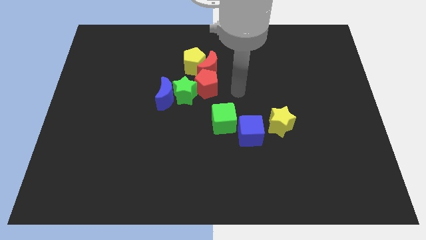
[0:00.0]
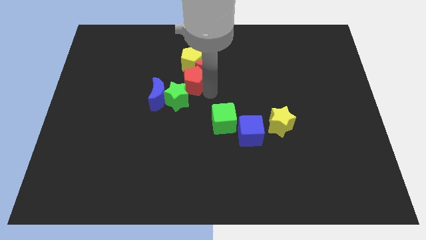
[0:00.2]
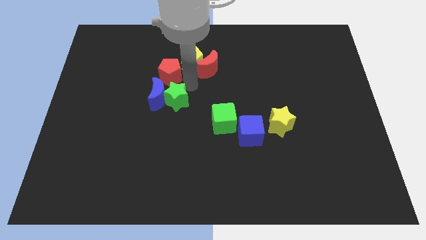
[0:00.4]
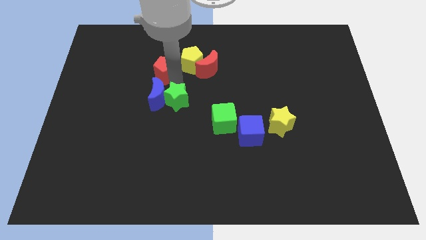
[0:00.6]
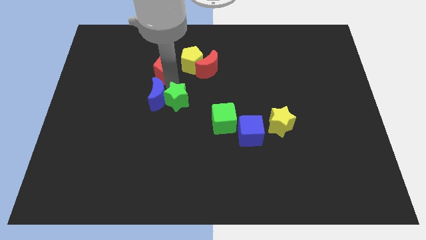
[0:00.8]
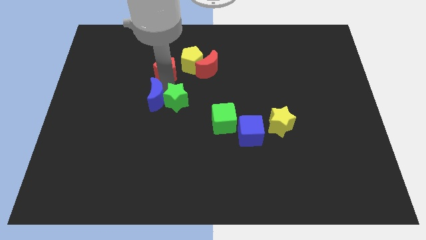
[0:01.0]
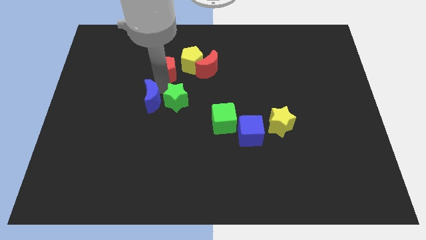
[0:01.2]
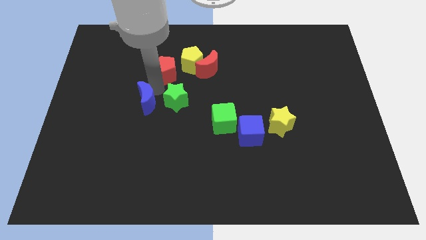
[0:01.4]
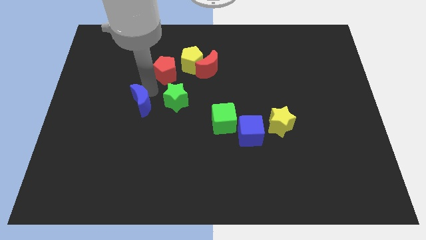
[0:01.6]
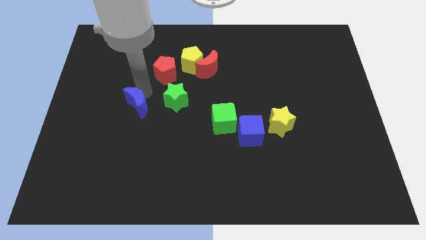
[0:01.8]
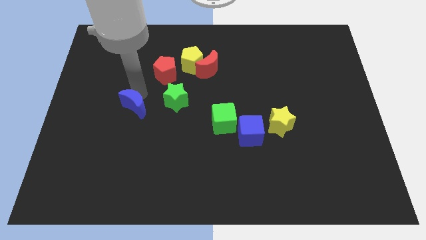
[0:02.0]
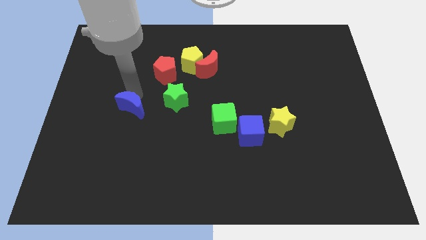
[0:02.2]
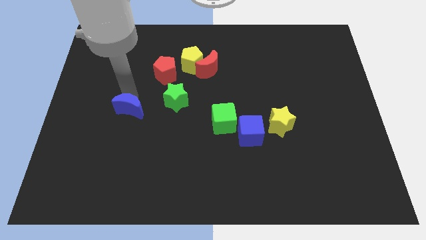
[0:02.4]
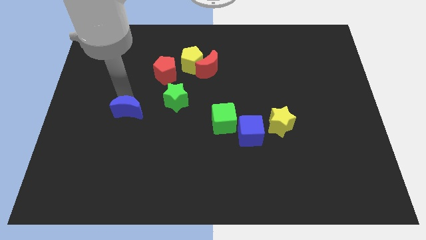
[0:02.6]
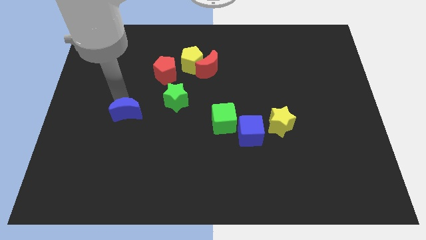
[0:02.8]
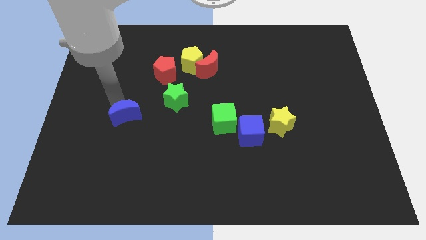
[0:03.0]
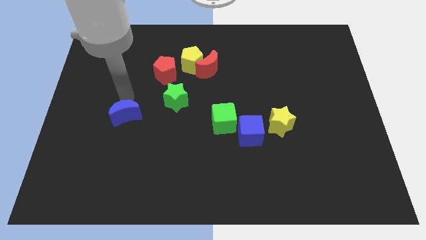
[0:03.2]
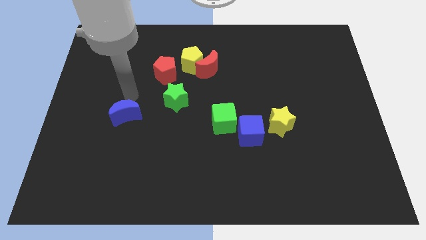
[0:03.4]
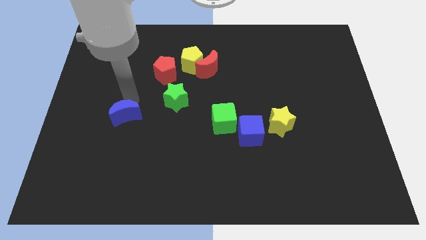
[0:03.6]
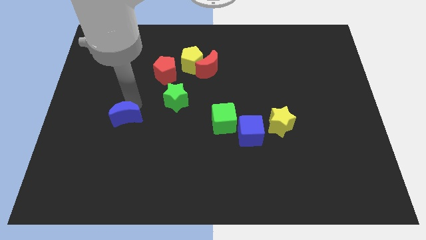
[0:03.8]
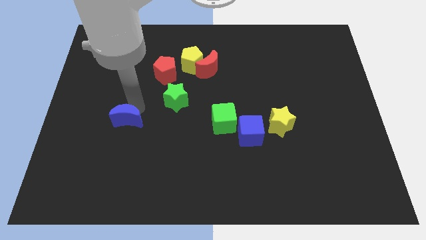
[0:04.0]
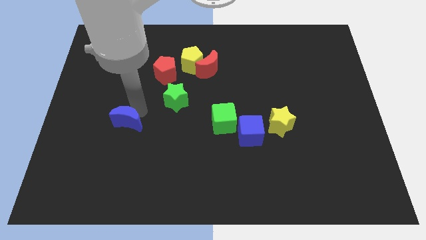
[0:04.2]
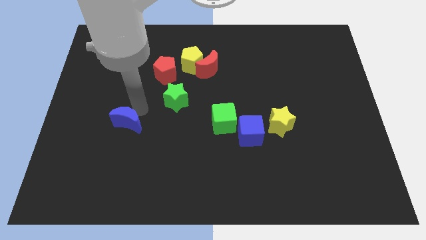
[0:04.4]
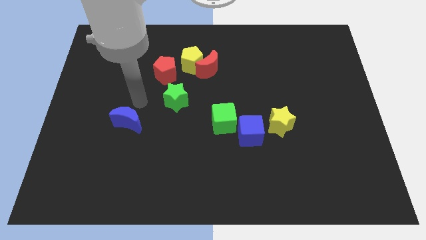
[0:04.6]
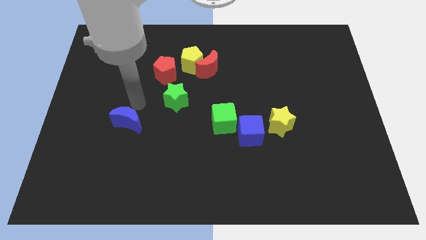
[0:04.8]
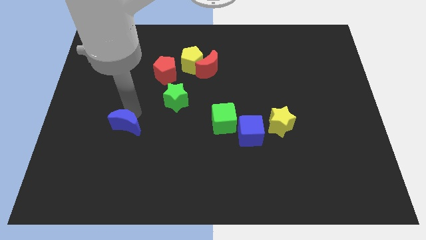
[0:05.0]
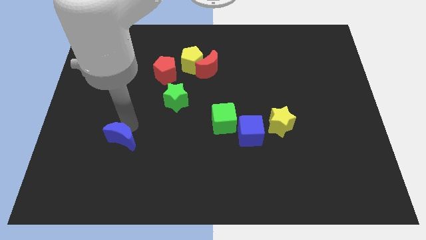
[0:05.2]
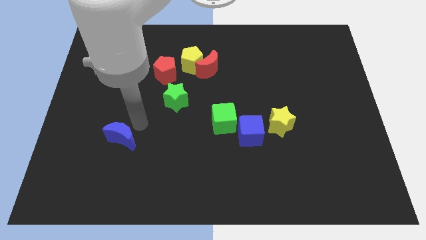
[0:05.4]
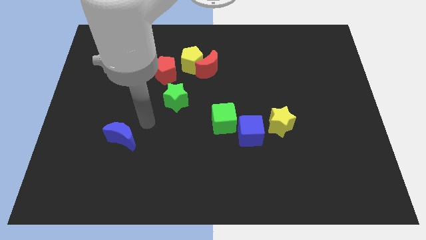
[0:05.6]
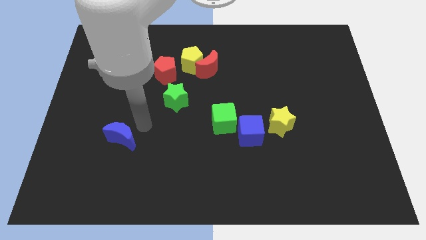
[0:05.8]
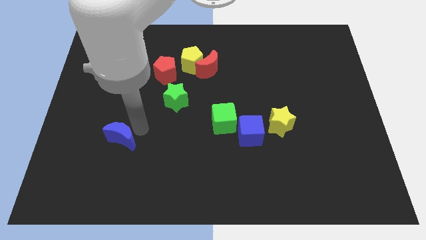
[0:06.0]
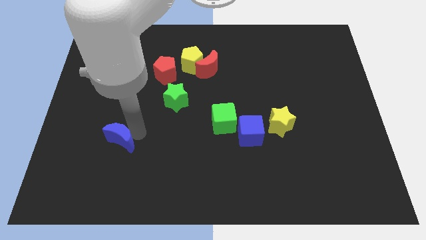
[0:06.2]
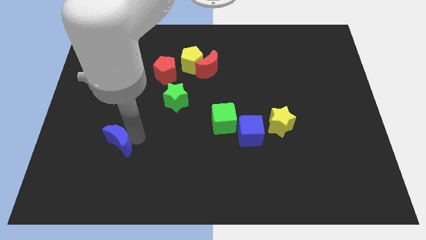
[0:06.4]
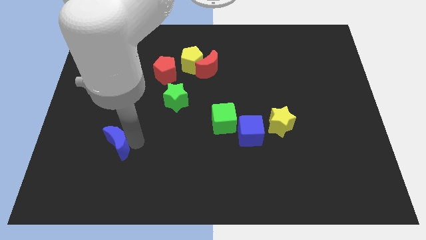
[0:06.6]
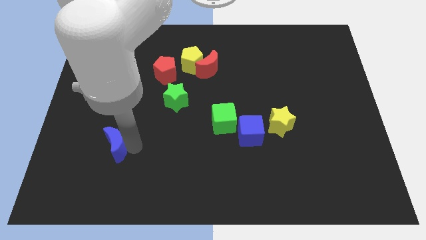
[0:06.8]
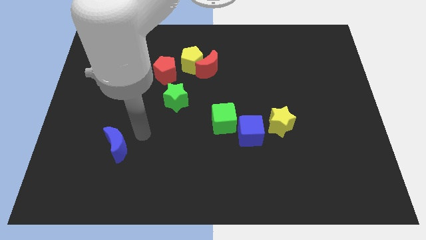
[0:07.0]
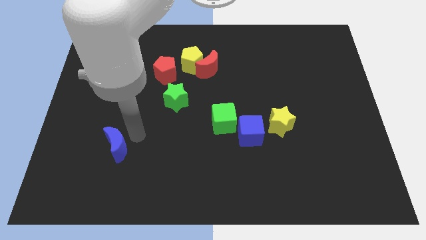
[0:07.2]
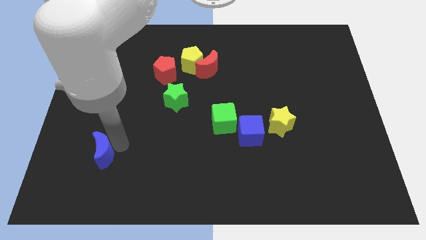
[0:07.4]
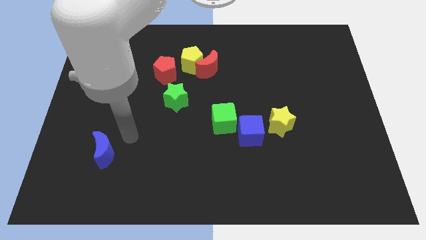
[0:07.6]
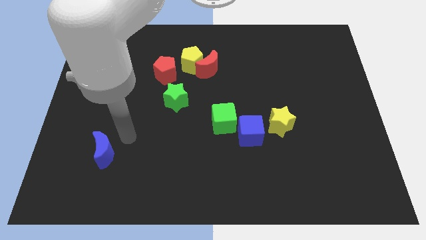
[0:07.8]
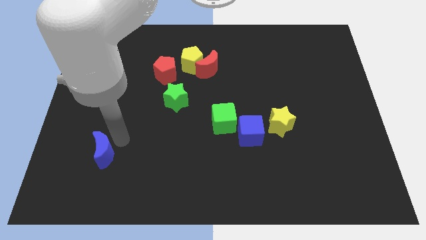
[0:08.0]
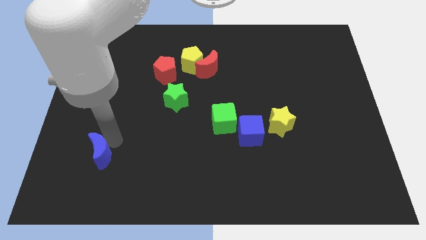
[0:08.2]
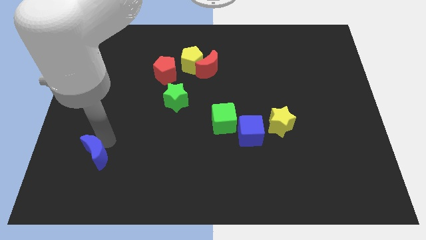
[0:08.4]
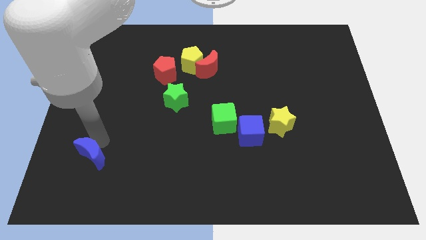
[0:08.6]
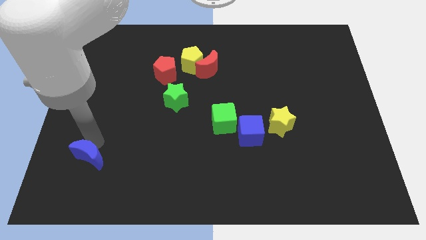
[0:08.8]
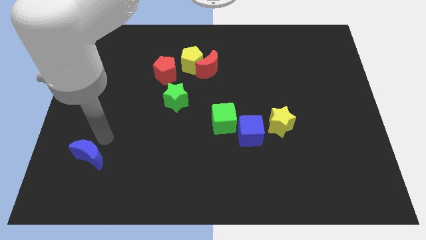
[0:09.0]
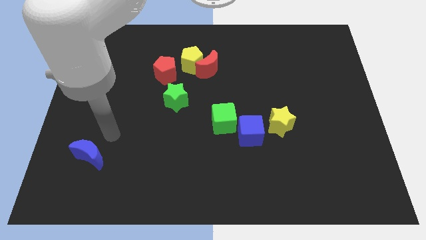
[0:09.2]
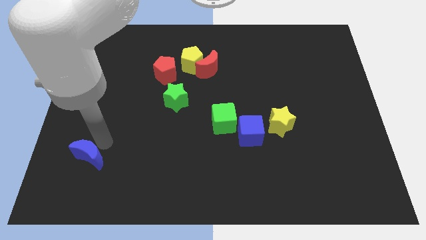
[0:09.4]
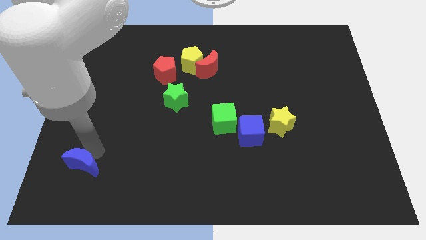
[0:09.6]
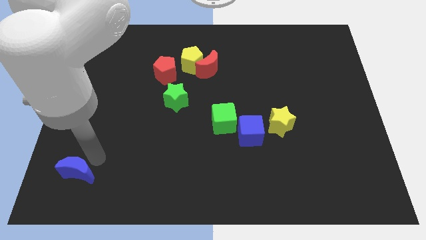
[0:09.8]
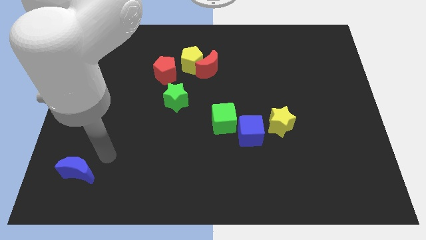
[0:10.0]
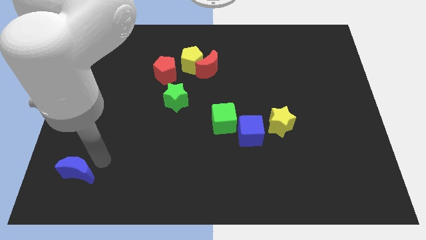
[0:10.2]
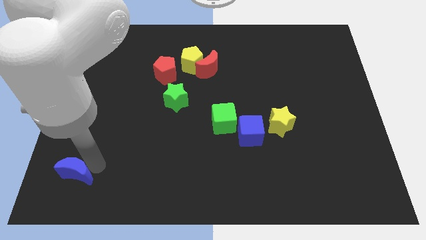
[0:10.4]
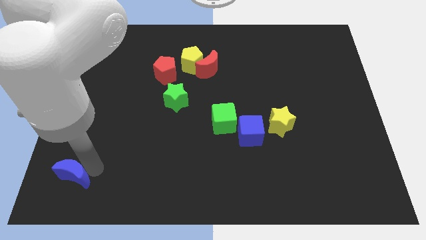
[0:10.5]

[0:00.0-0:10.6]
push the blue moon to the bottom left

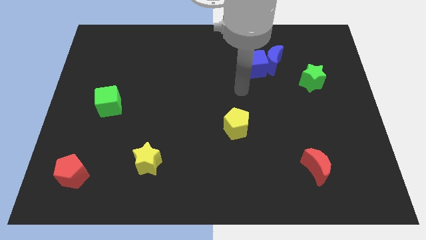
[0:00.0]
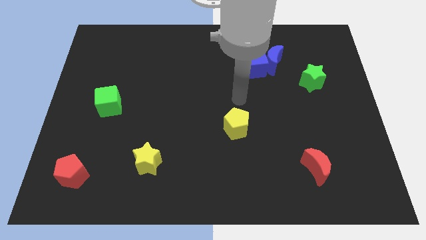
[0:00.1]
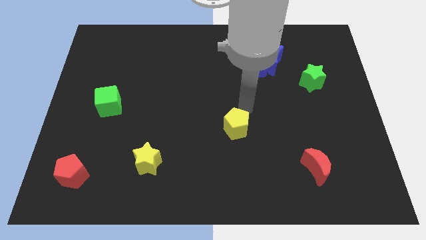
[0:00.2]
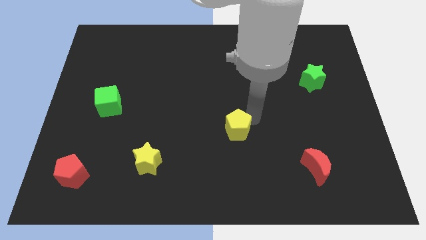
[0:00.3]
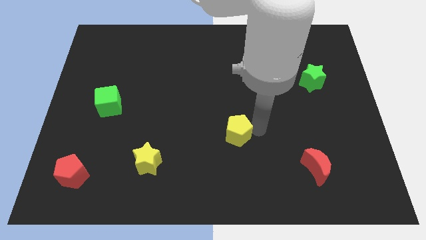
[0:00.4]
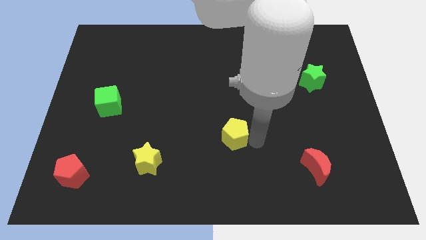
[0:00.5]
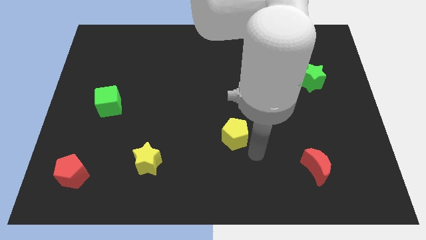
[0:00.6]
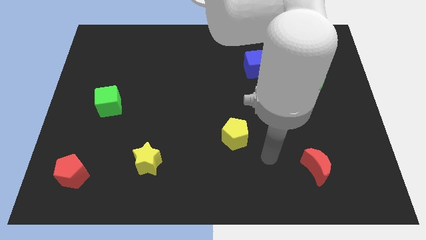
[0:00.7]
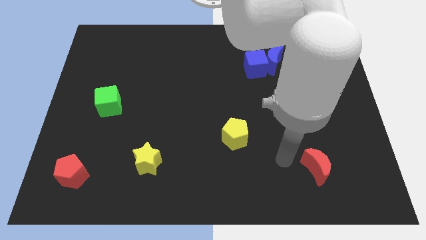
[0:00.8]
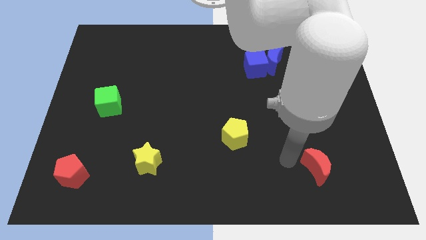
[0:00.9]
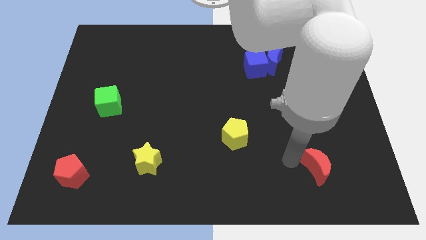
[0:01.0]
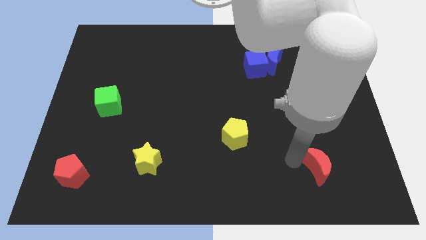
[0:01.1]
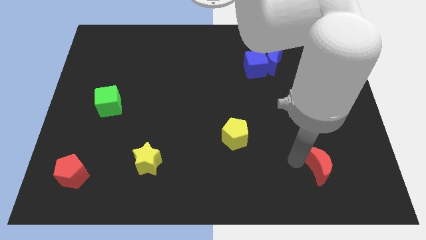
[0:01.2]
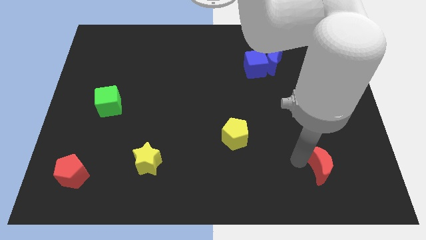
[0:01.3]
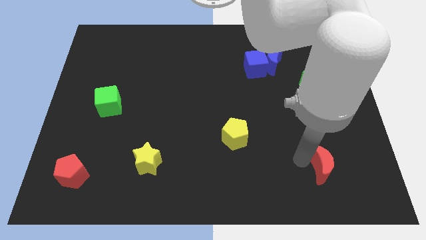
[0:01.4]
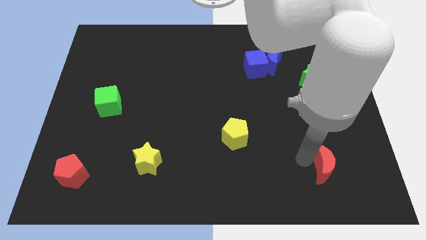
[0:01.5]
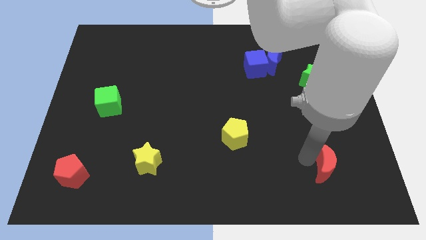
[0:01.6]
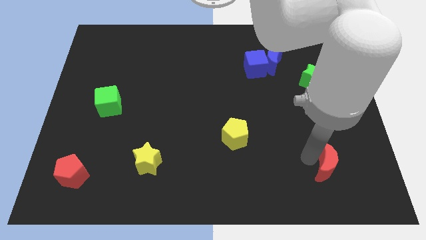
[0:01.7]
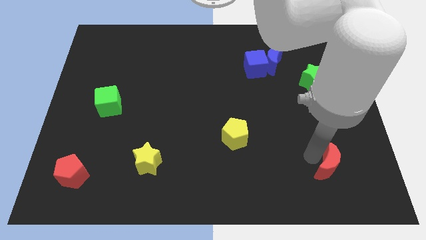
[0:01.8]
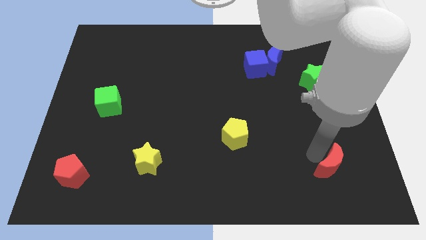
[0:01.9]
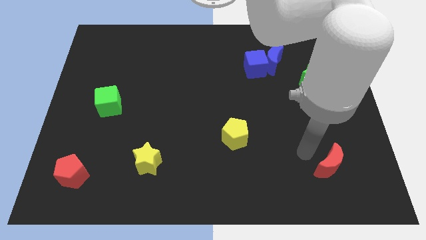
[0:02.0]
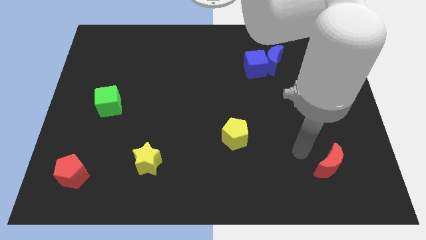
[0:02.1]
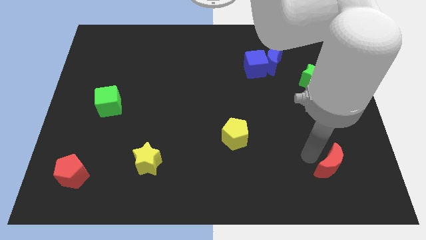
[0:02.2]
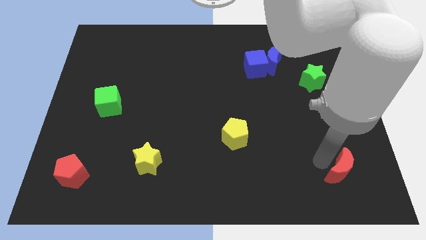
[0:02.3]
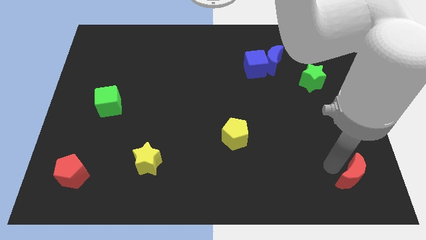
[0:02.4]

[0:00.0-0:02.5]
move the red moon to the bottom right
